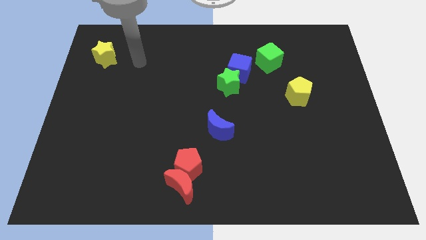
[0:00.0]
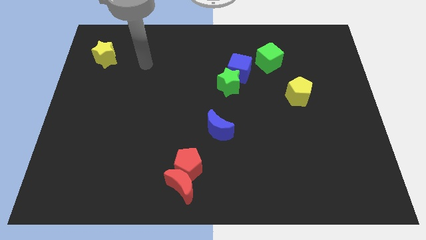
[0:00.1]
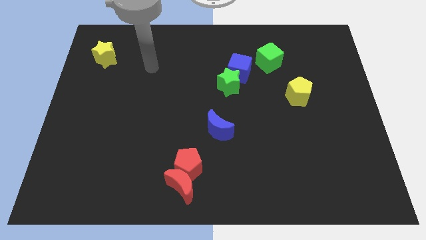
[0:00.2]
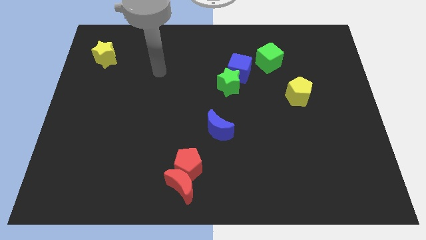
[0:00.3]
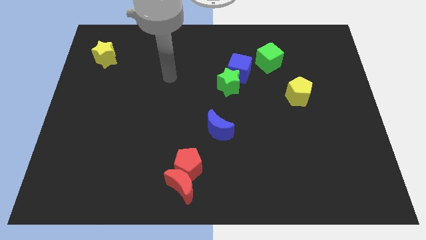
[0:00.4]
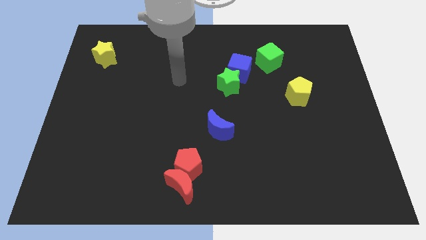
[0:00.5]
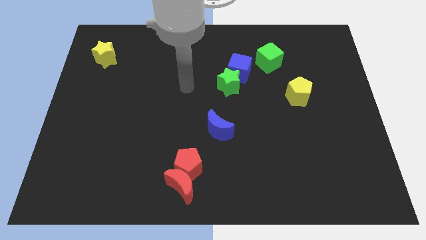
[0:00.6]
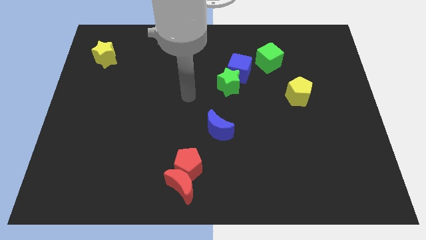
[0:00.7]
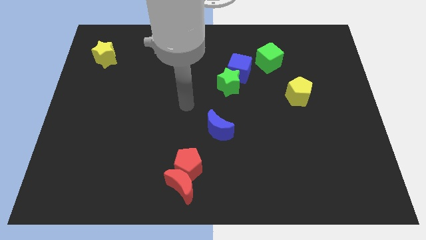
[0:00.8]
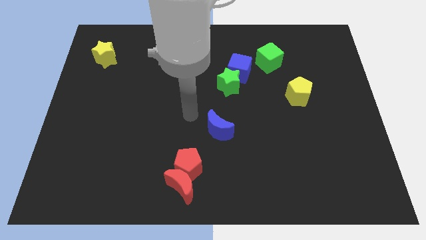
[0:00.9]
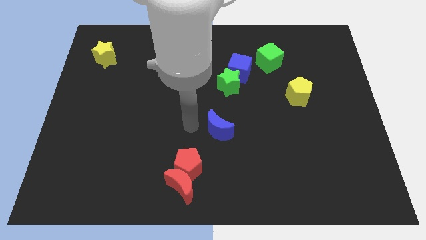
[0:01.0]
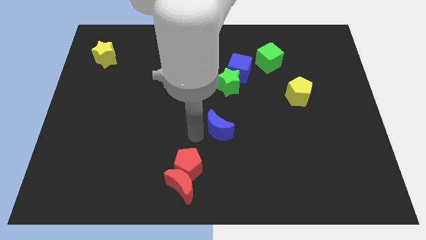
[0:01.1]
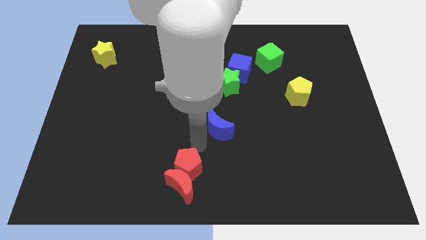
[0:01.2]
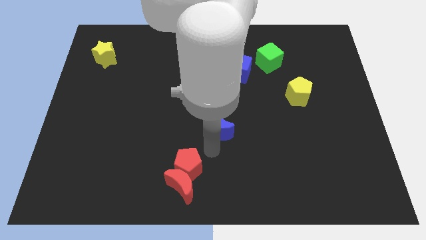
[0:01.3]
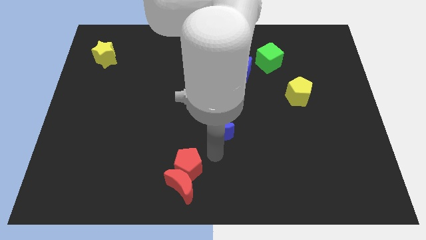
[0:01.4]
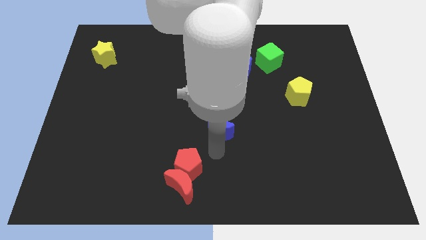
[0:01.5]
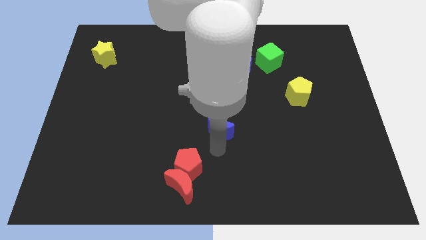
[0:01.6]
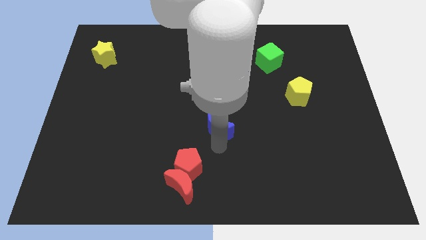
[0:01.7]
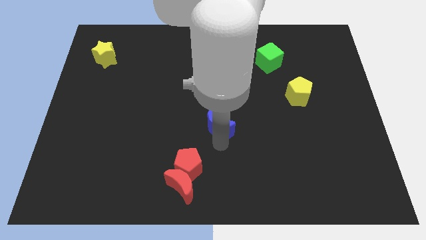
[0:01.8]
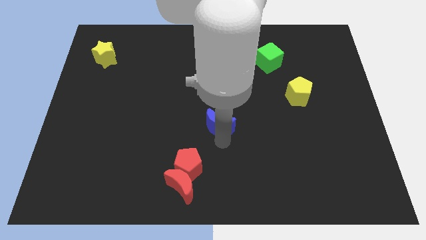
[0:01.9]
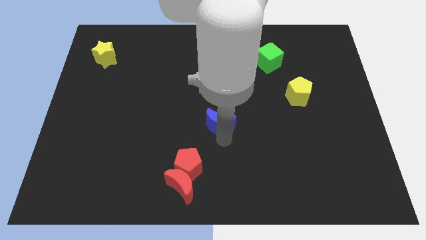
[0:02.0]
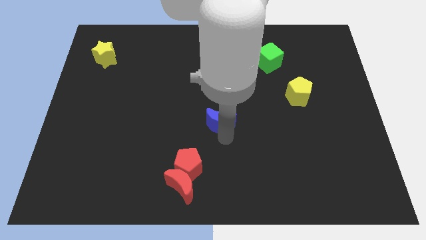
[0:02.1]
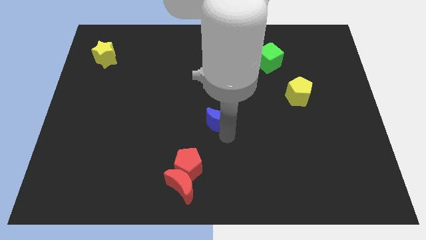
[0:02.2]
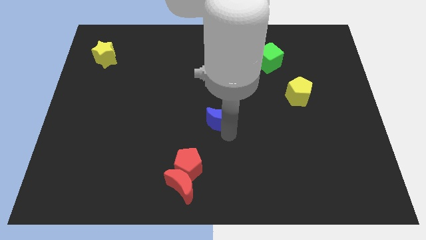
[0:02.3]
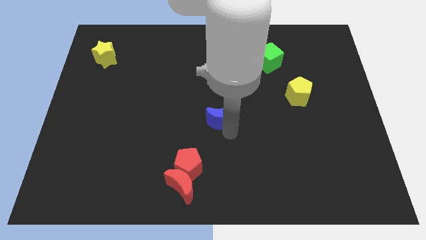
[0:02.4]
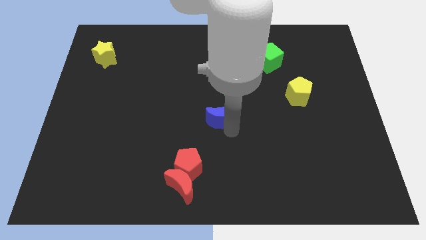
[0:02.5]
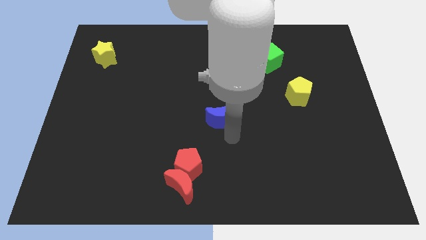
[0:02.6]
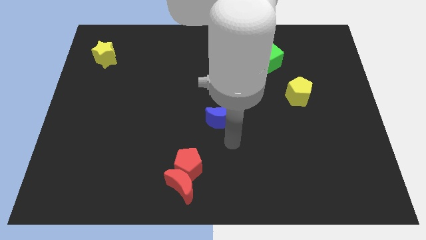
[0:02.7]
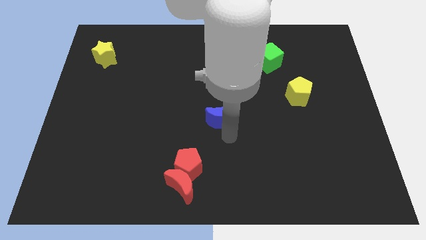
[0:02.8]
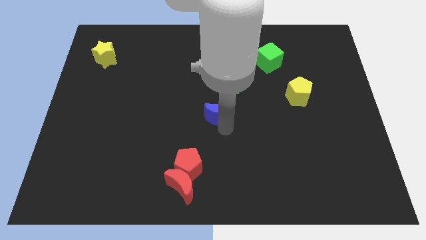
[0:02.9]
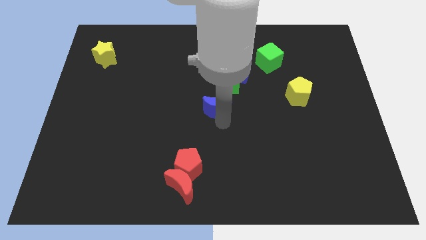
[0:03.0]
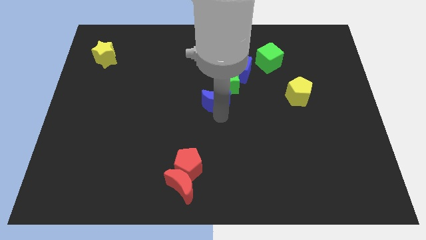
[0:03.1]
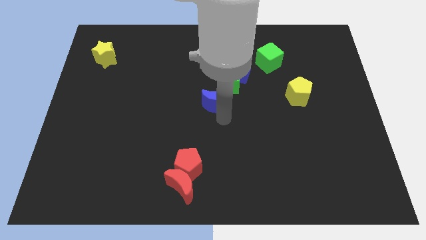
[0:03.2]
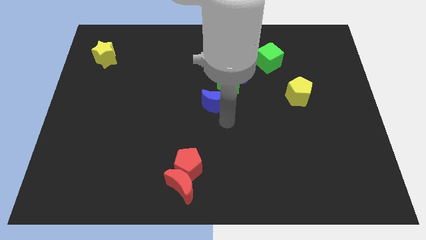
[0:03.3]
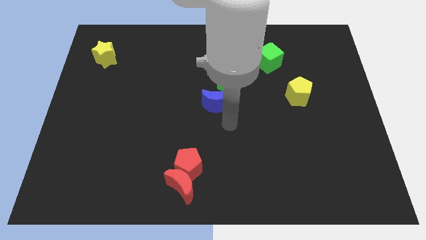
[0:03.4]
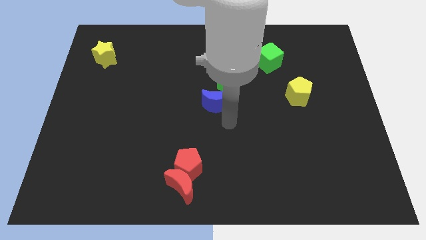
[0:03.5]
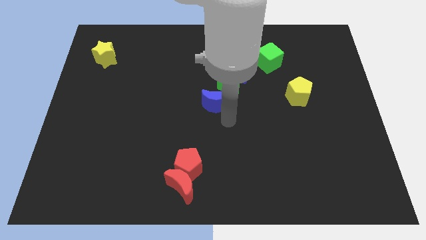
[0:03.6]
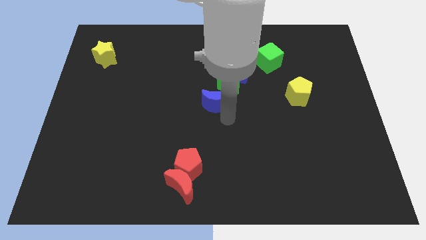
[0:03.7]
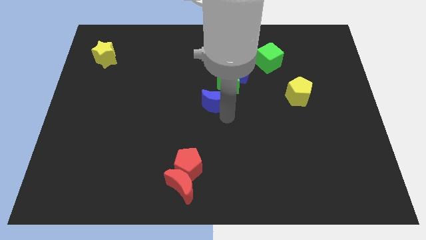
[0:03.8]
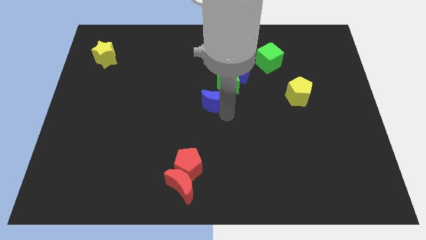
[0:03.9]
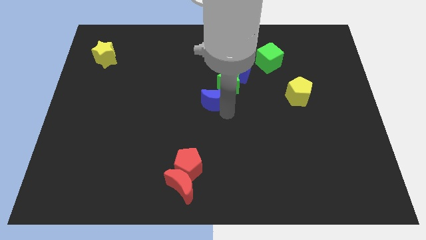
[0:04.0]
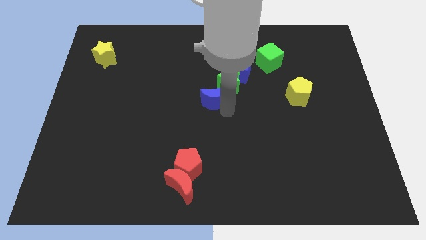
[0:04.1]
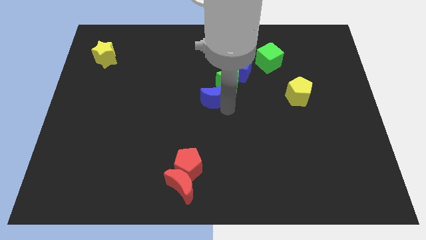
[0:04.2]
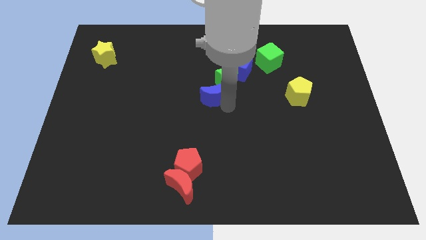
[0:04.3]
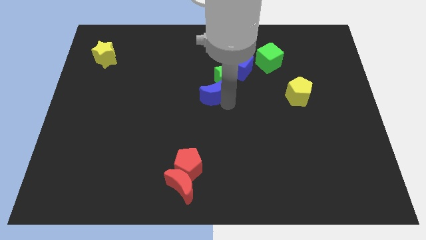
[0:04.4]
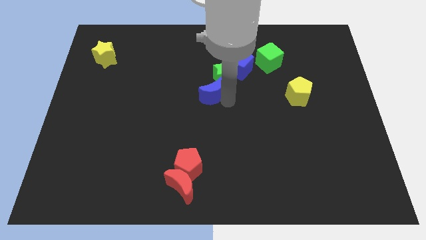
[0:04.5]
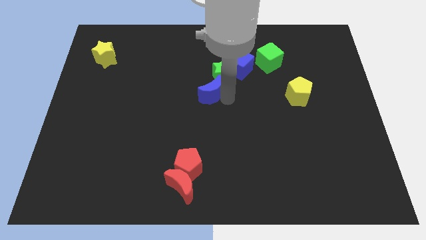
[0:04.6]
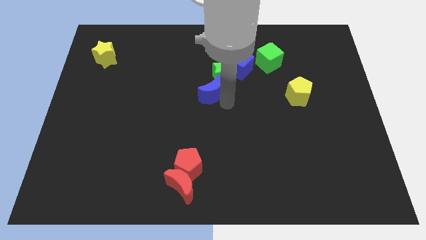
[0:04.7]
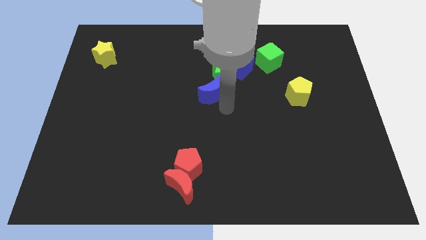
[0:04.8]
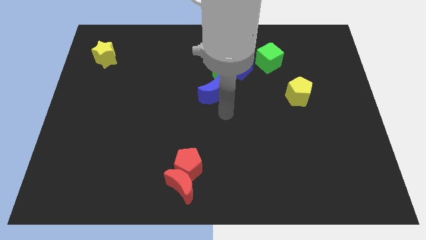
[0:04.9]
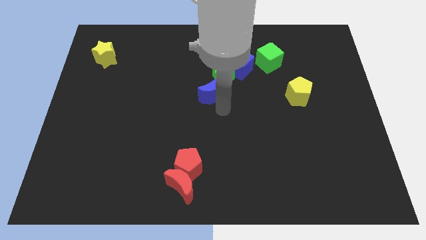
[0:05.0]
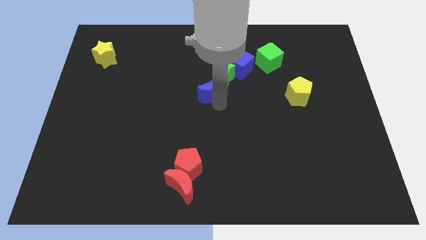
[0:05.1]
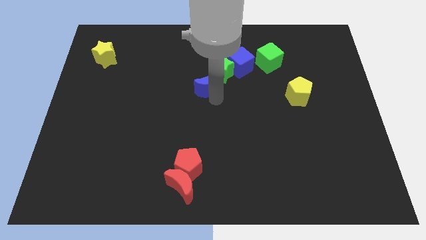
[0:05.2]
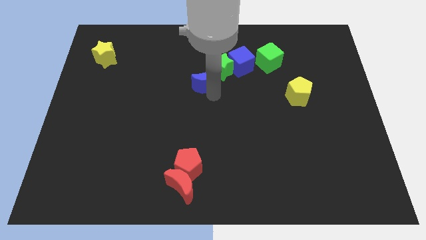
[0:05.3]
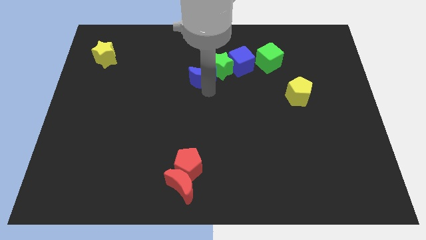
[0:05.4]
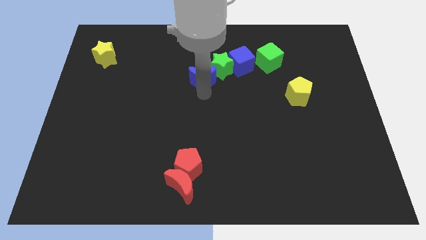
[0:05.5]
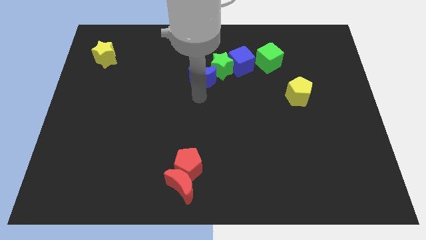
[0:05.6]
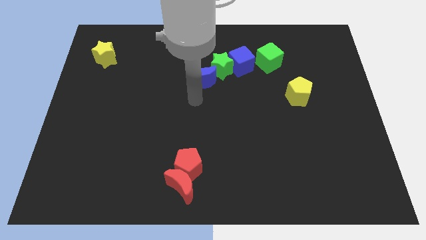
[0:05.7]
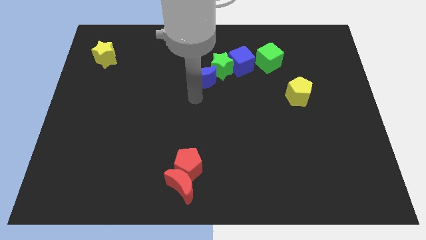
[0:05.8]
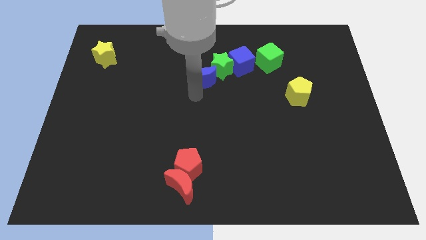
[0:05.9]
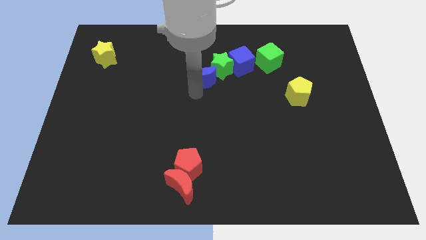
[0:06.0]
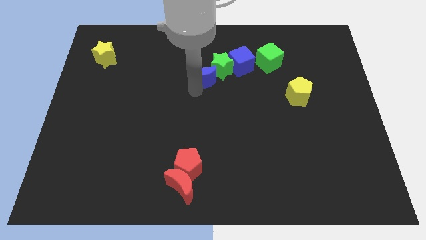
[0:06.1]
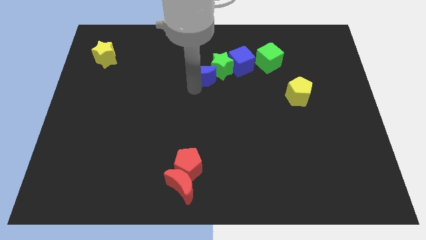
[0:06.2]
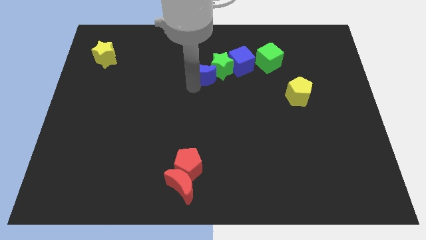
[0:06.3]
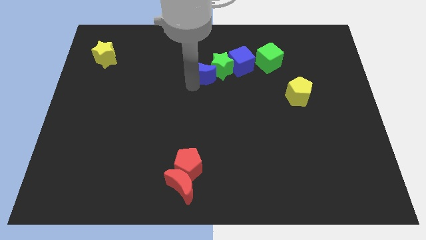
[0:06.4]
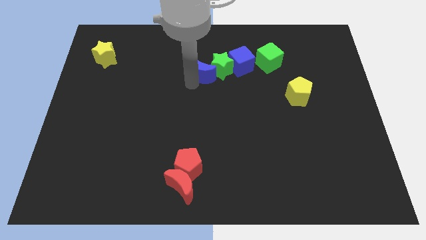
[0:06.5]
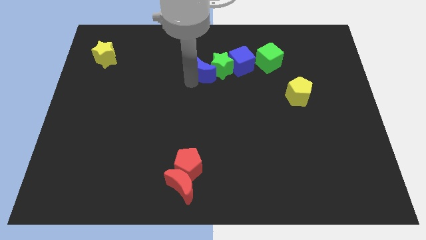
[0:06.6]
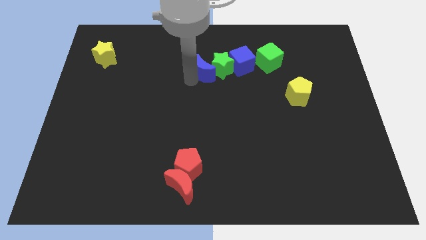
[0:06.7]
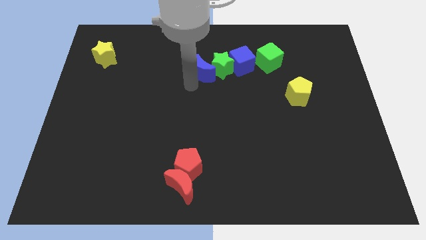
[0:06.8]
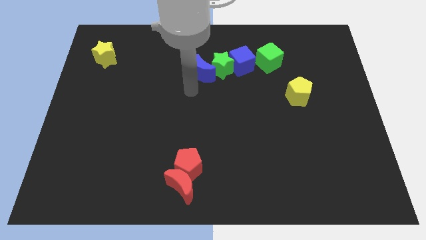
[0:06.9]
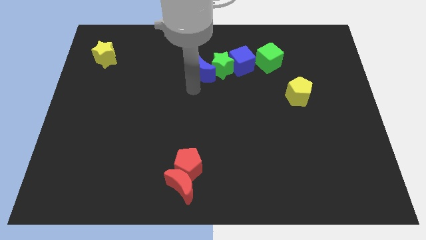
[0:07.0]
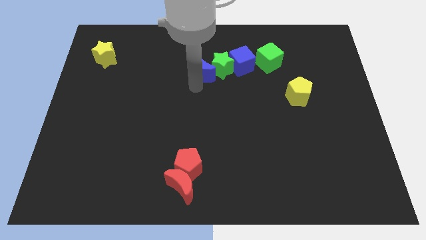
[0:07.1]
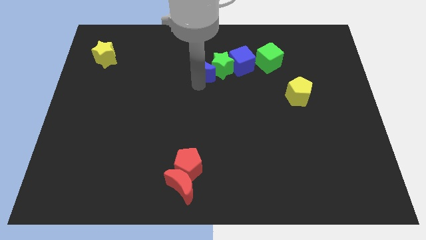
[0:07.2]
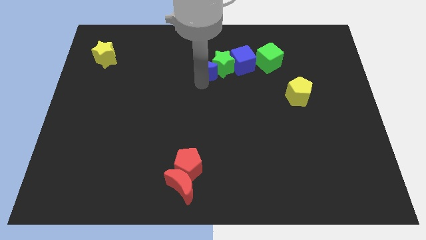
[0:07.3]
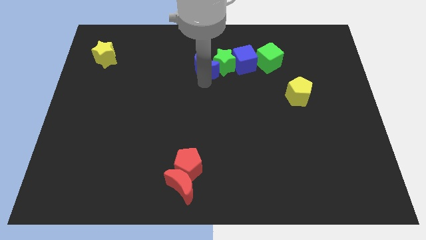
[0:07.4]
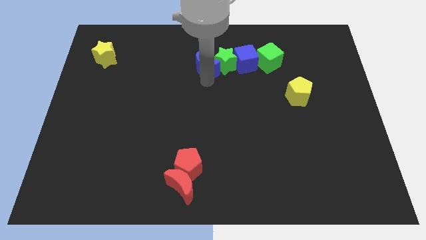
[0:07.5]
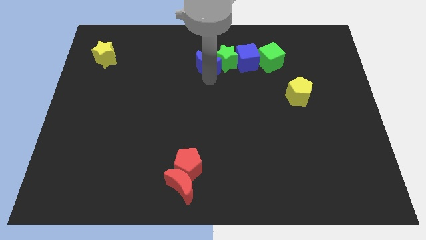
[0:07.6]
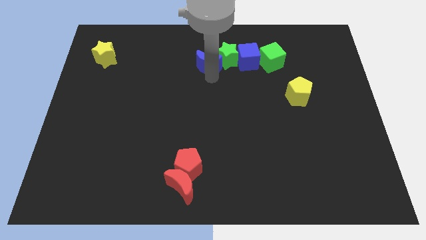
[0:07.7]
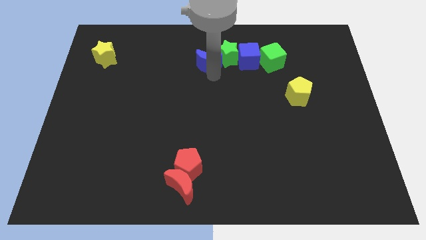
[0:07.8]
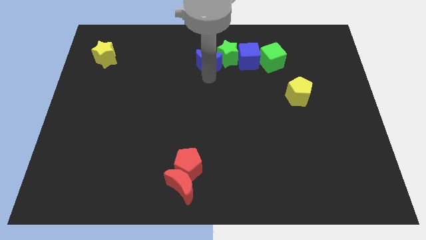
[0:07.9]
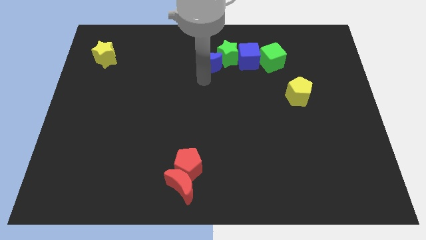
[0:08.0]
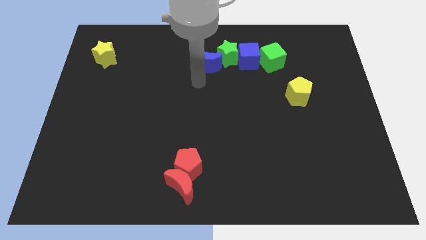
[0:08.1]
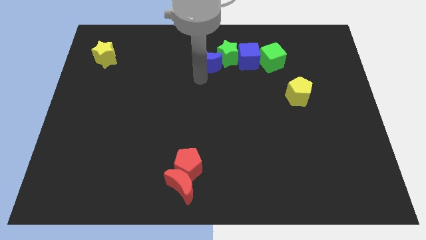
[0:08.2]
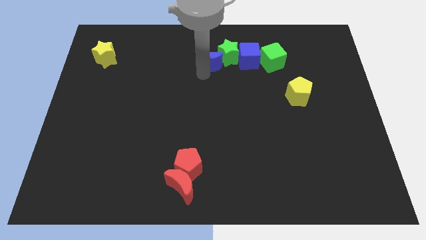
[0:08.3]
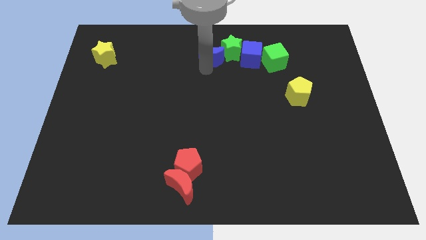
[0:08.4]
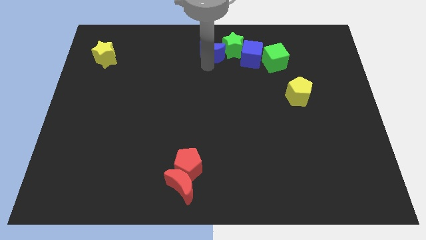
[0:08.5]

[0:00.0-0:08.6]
push the blue moon to the towards your base
